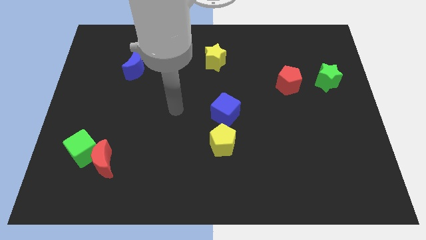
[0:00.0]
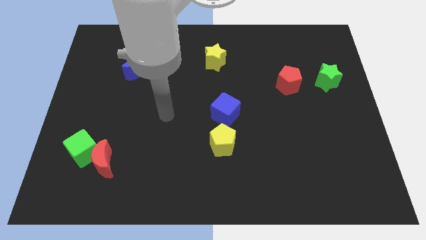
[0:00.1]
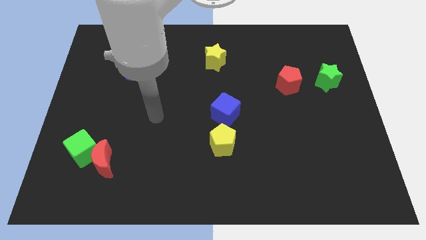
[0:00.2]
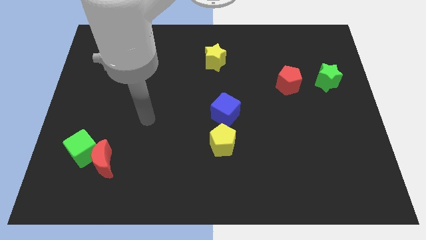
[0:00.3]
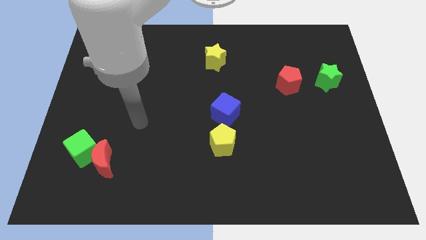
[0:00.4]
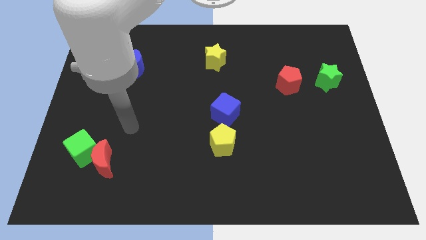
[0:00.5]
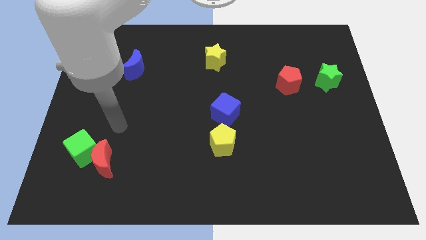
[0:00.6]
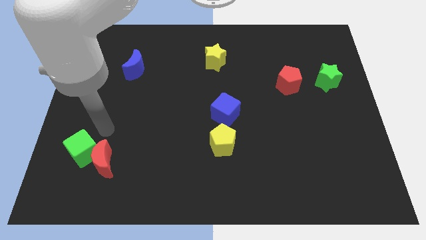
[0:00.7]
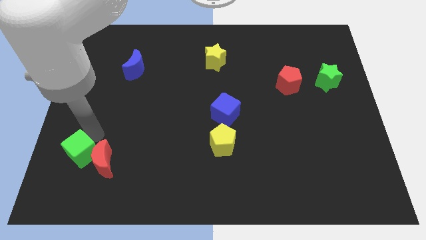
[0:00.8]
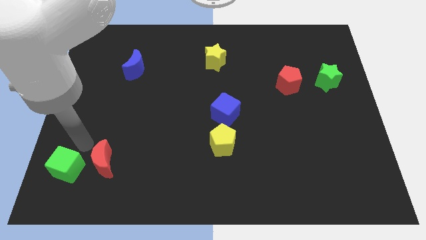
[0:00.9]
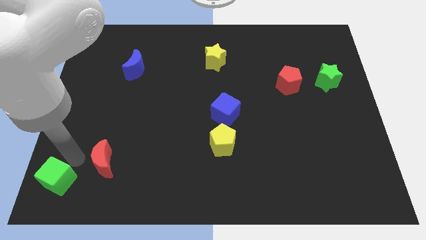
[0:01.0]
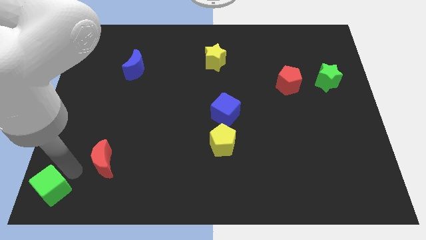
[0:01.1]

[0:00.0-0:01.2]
separate the red moon from the green cube

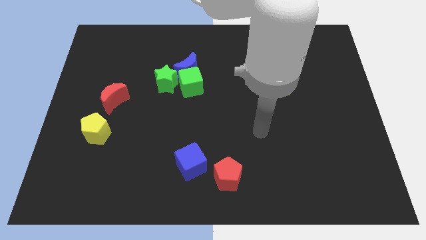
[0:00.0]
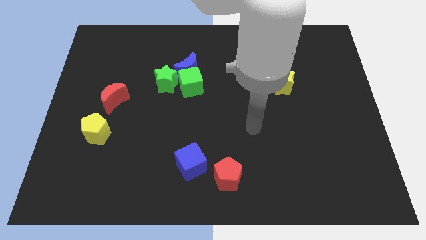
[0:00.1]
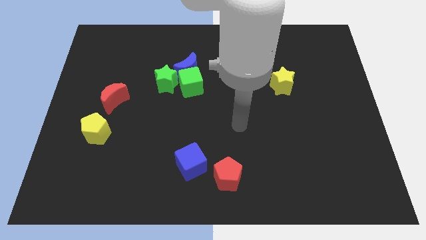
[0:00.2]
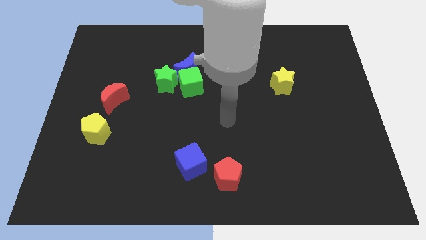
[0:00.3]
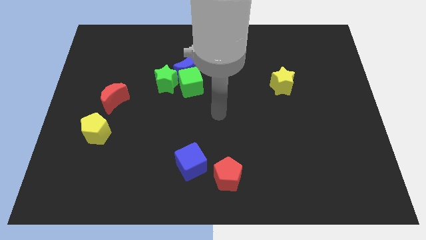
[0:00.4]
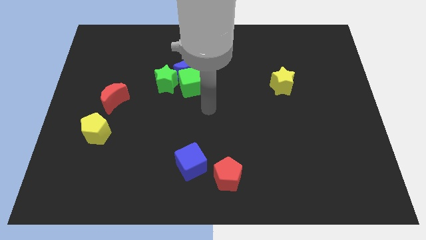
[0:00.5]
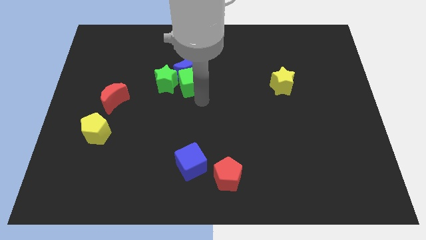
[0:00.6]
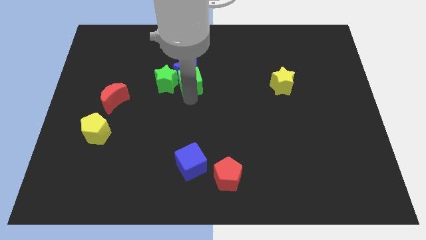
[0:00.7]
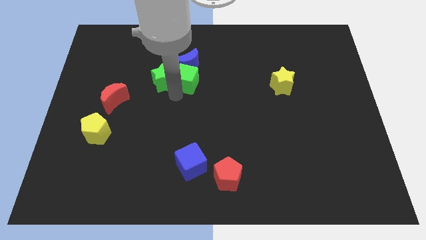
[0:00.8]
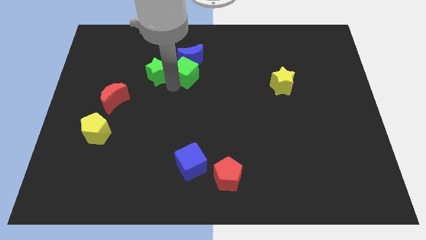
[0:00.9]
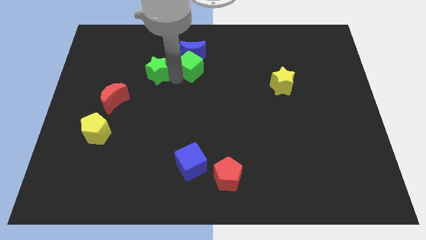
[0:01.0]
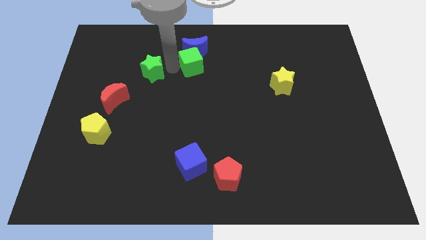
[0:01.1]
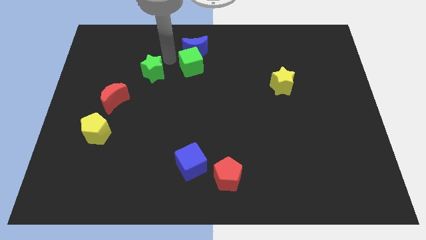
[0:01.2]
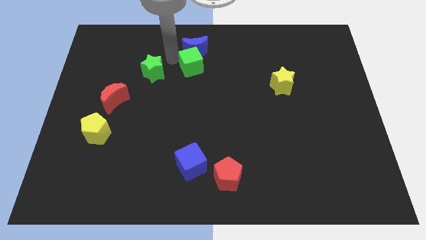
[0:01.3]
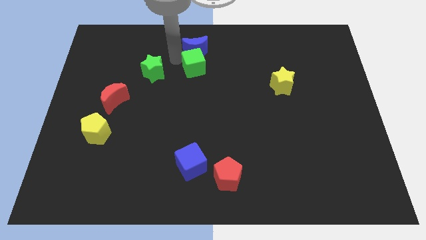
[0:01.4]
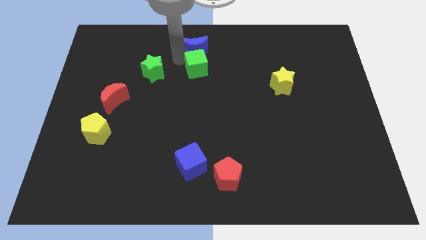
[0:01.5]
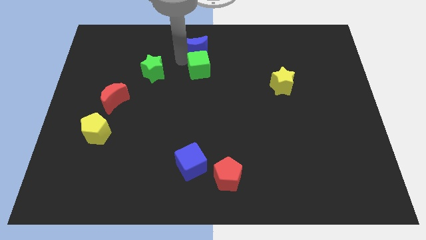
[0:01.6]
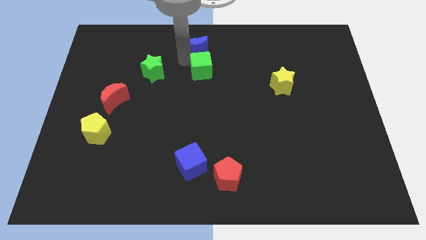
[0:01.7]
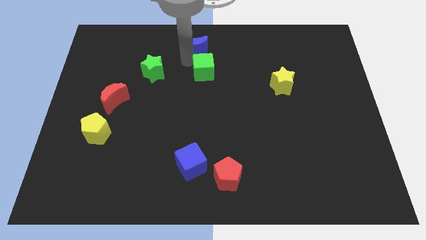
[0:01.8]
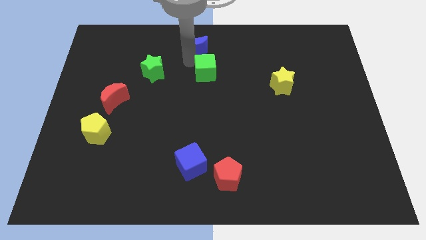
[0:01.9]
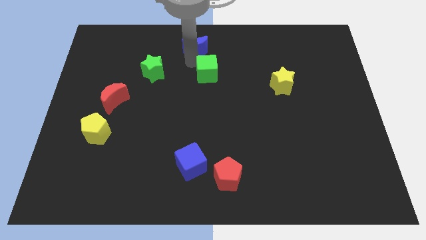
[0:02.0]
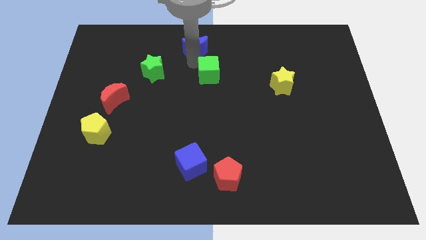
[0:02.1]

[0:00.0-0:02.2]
pull the green cube apart from the blue moon and green star

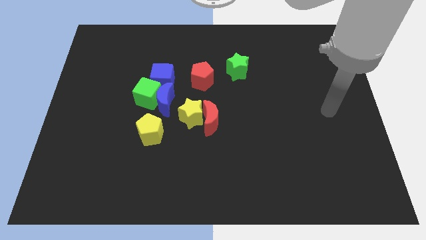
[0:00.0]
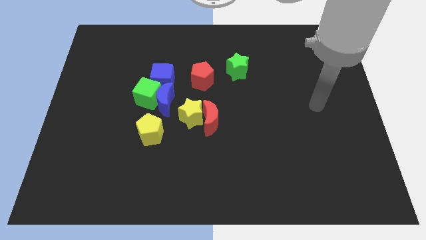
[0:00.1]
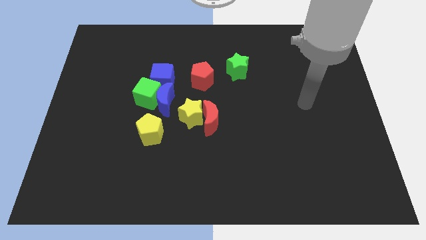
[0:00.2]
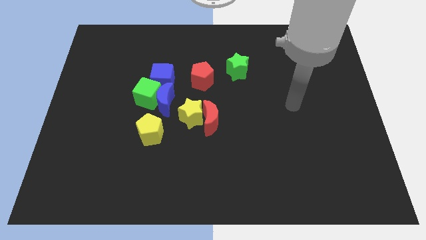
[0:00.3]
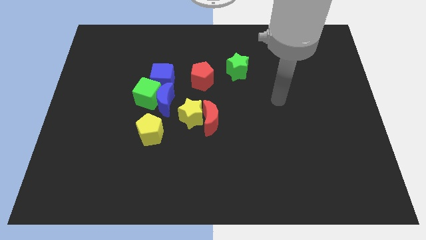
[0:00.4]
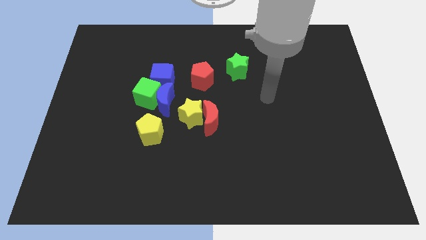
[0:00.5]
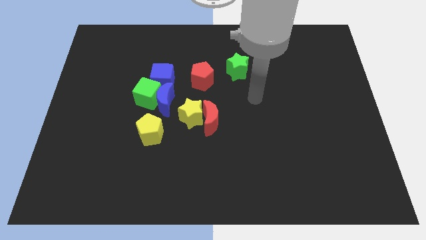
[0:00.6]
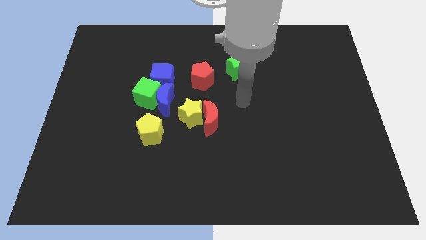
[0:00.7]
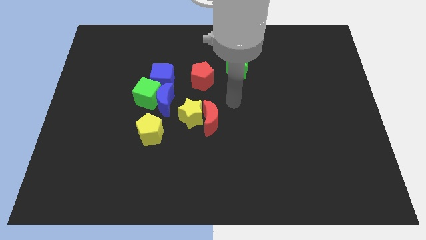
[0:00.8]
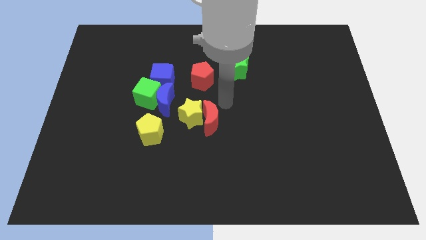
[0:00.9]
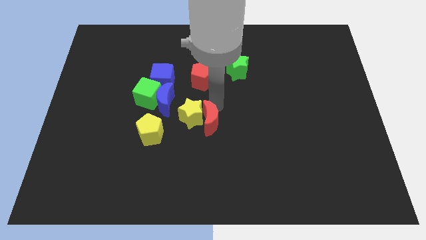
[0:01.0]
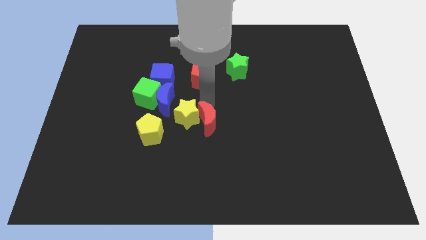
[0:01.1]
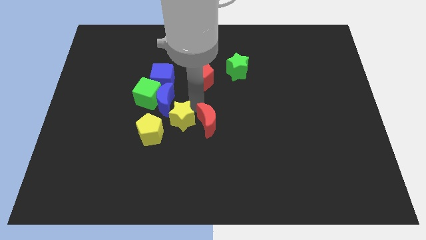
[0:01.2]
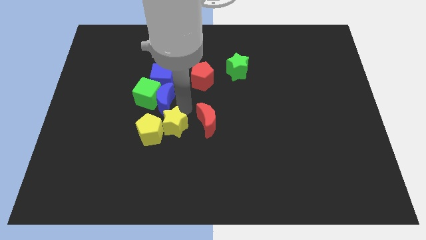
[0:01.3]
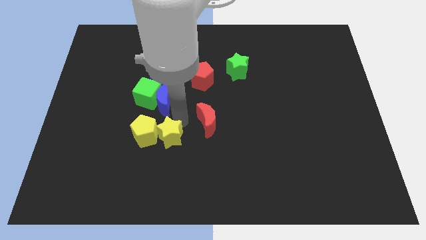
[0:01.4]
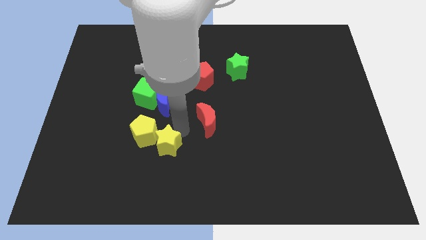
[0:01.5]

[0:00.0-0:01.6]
pull the red moon apart from the yellow star

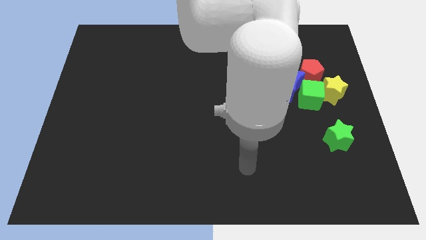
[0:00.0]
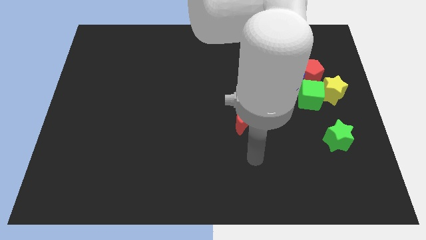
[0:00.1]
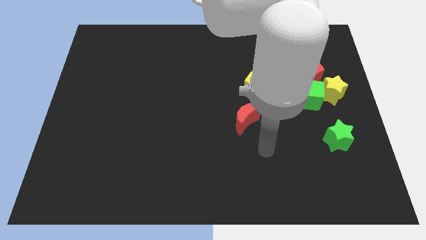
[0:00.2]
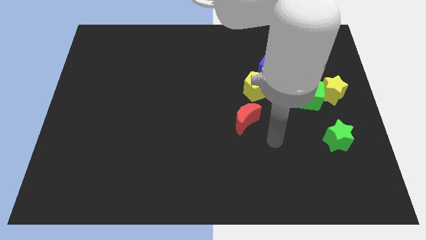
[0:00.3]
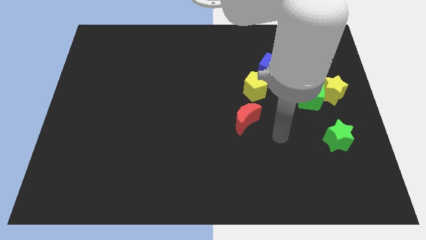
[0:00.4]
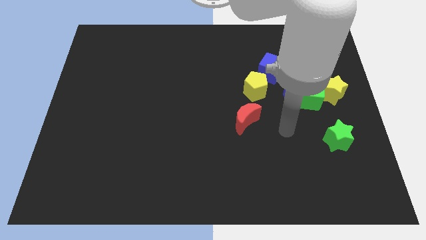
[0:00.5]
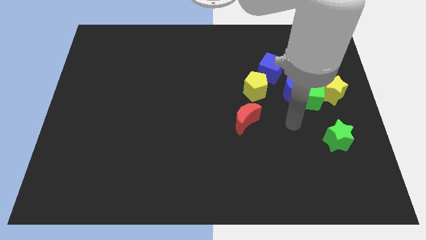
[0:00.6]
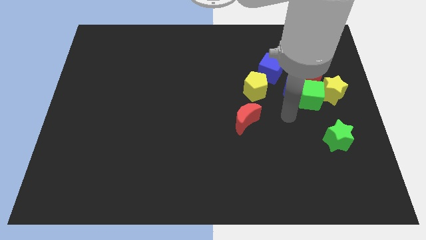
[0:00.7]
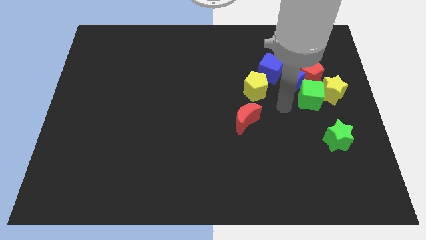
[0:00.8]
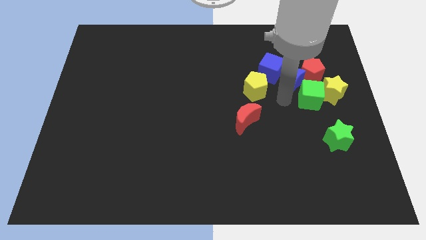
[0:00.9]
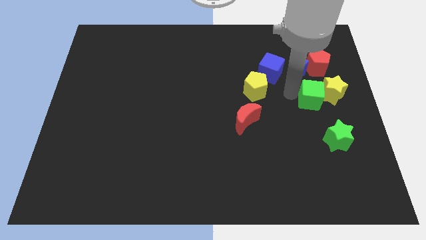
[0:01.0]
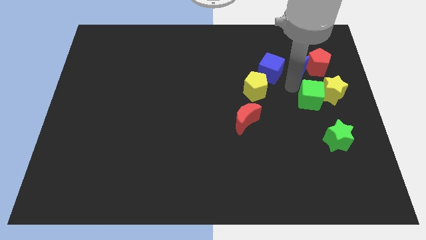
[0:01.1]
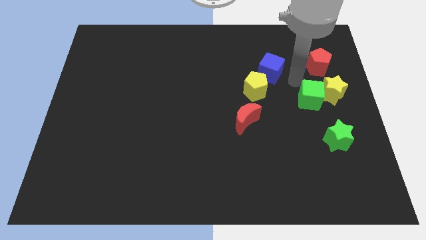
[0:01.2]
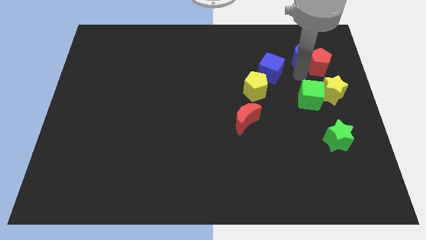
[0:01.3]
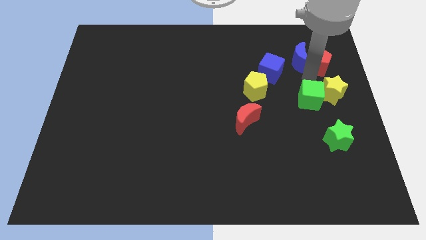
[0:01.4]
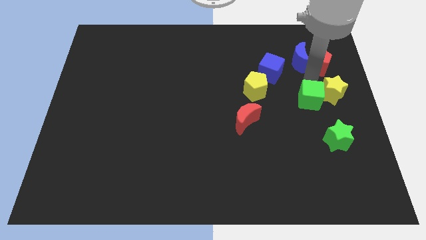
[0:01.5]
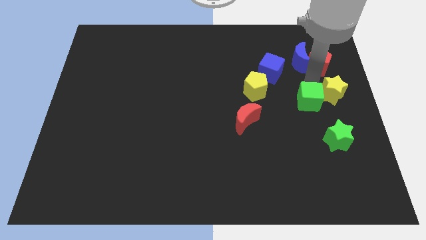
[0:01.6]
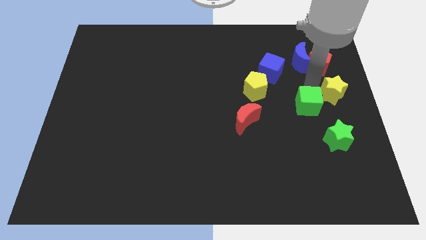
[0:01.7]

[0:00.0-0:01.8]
separate the green cube from the group

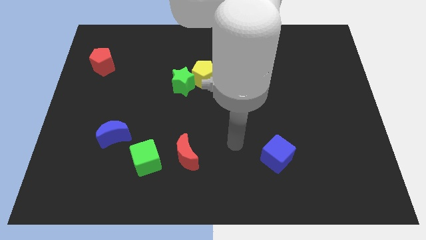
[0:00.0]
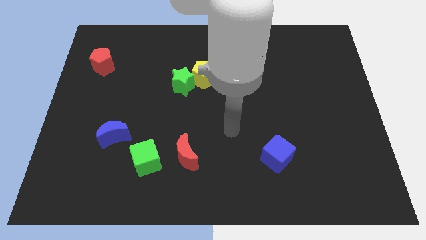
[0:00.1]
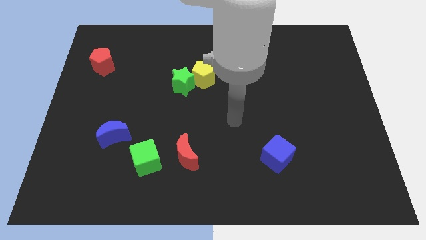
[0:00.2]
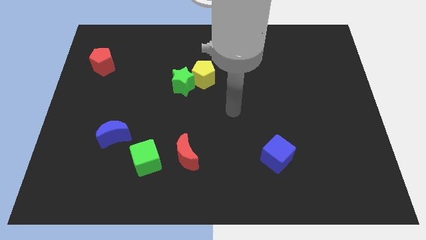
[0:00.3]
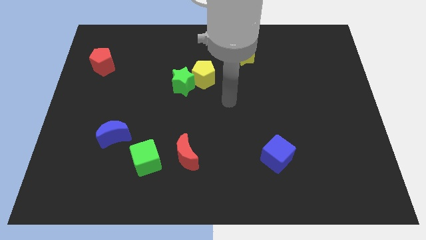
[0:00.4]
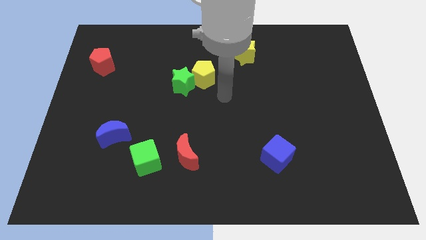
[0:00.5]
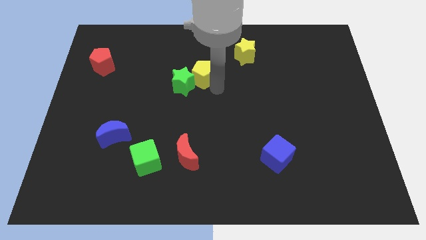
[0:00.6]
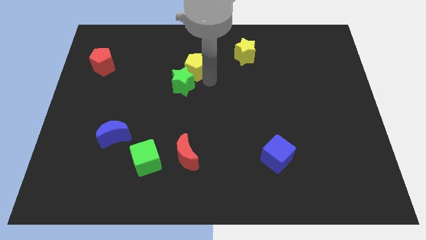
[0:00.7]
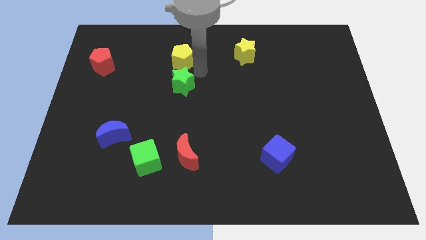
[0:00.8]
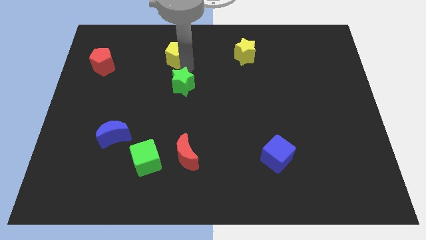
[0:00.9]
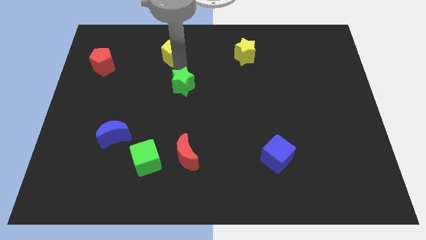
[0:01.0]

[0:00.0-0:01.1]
pull the green star apart from the yellow pentagon

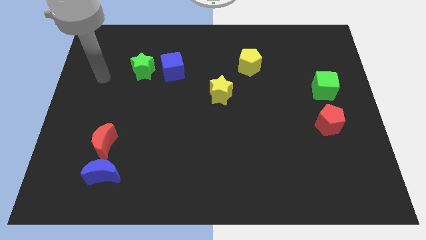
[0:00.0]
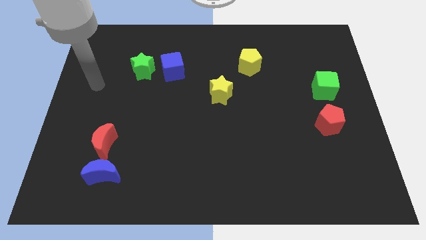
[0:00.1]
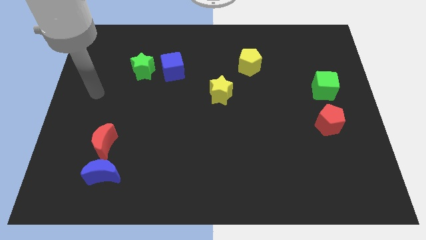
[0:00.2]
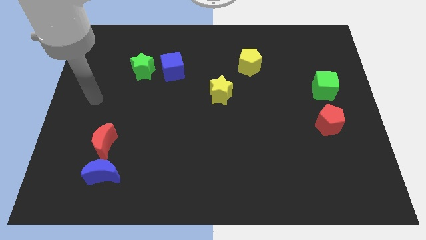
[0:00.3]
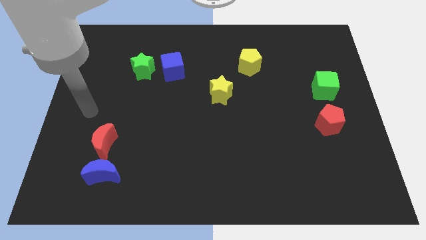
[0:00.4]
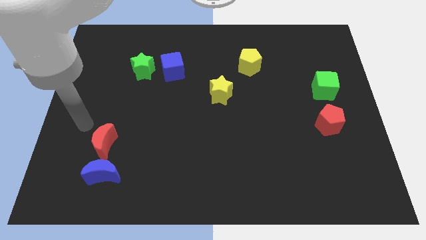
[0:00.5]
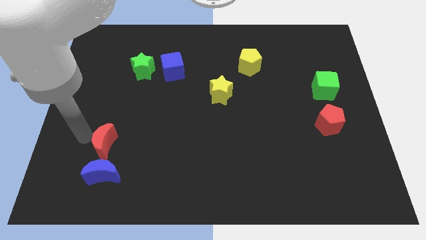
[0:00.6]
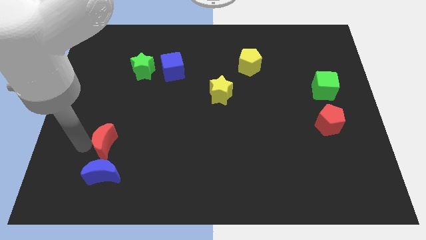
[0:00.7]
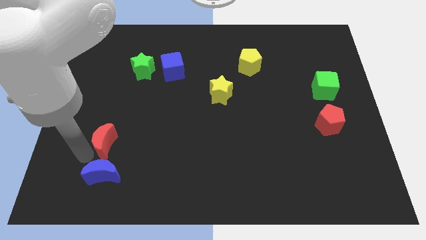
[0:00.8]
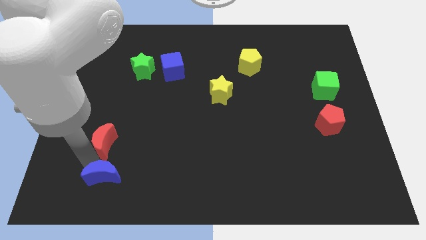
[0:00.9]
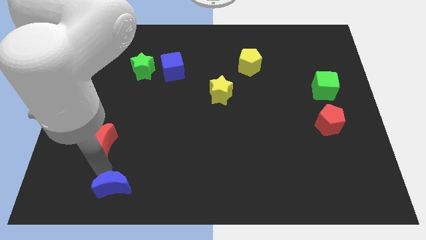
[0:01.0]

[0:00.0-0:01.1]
pull the red moon apart from the blue moon

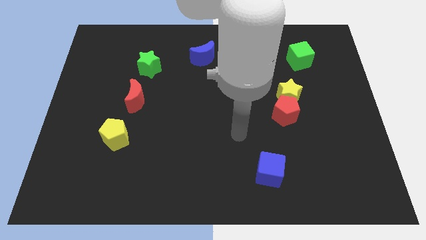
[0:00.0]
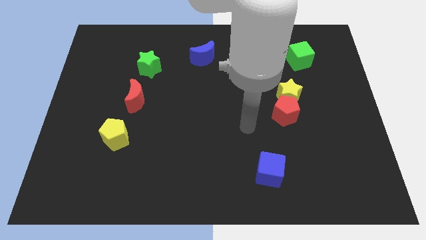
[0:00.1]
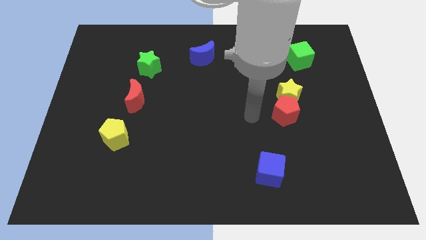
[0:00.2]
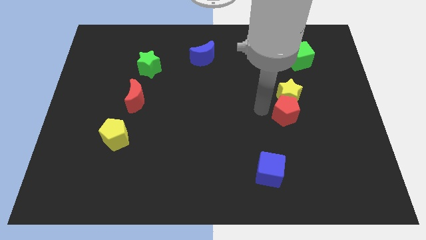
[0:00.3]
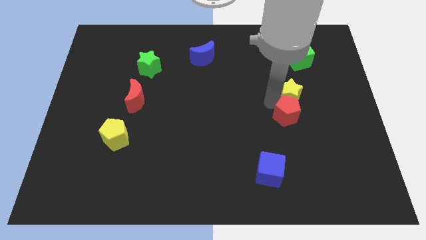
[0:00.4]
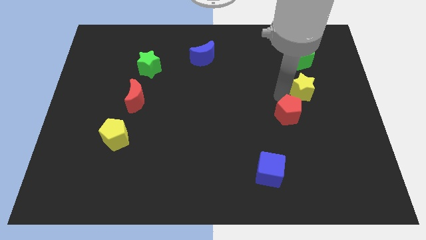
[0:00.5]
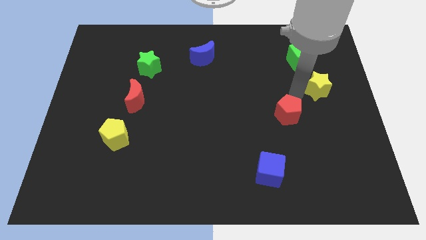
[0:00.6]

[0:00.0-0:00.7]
separate the red pentagon from the yellow star
